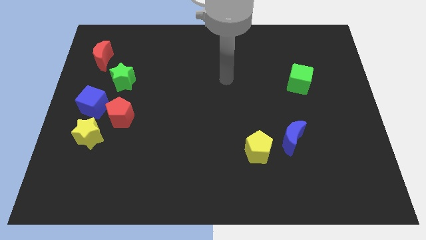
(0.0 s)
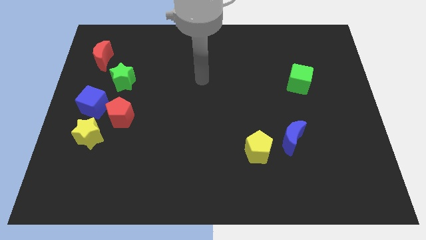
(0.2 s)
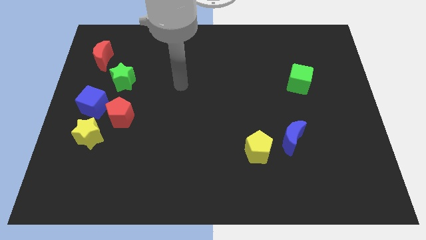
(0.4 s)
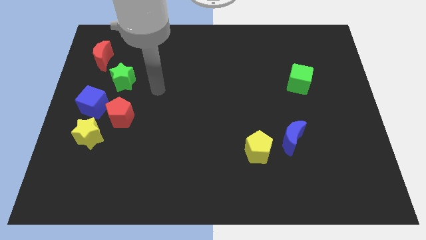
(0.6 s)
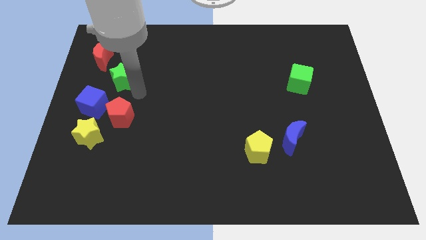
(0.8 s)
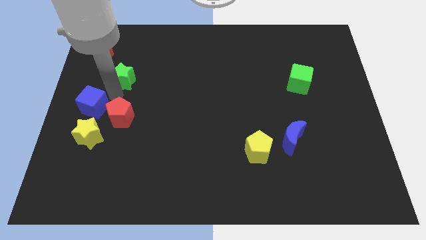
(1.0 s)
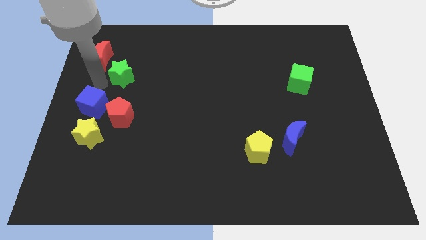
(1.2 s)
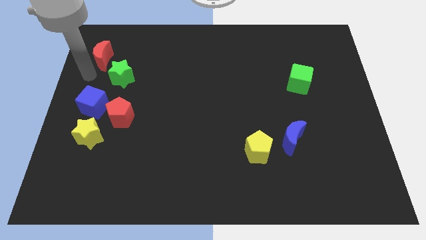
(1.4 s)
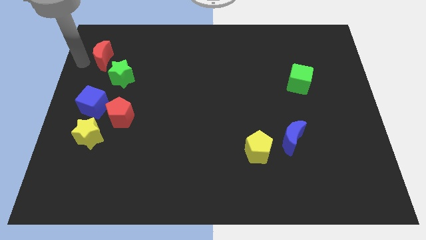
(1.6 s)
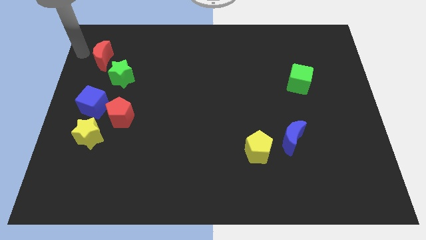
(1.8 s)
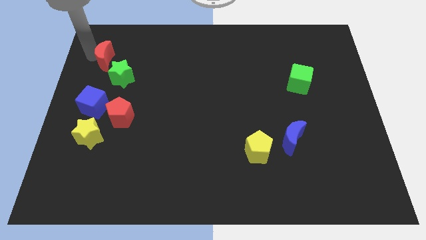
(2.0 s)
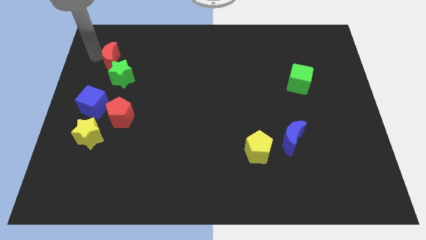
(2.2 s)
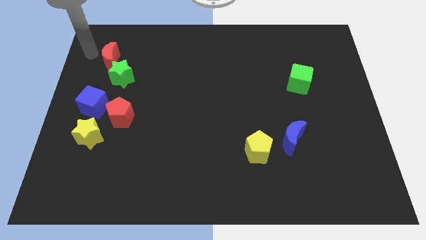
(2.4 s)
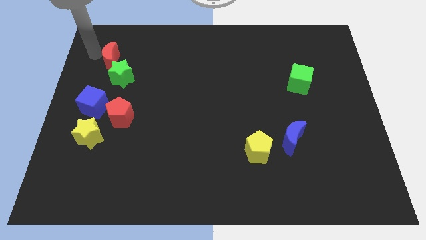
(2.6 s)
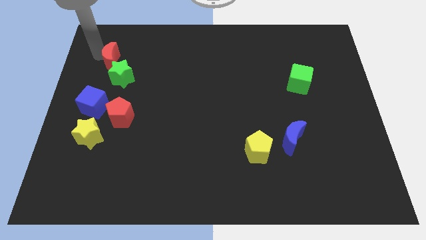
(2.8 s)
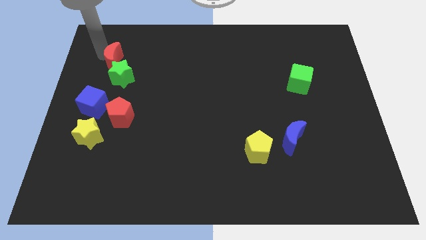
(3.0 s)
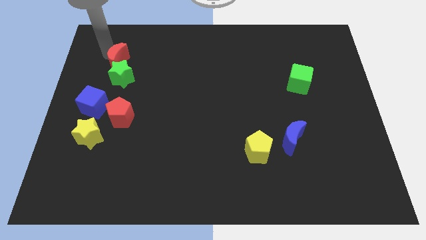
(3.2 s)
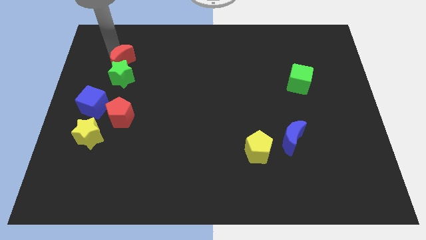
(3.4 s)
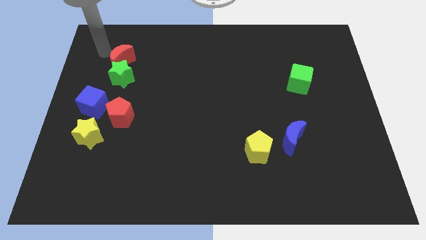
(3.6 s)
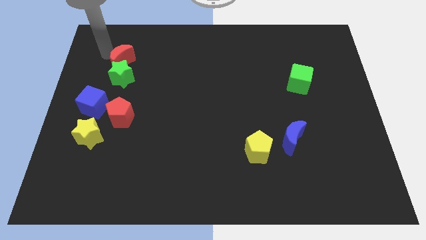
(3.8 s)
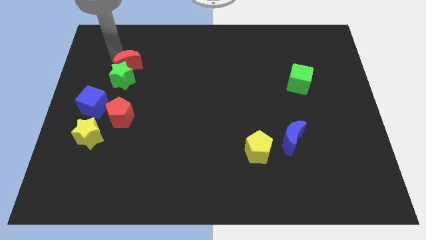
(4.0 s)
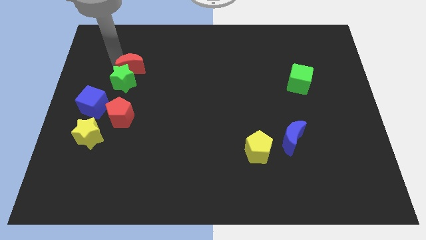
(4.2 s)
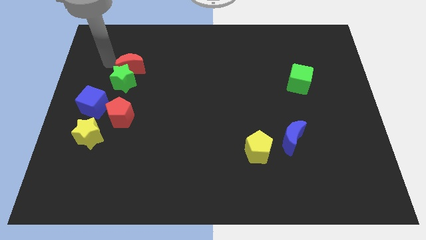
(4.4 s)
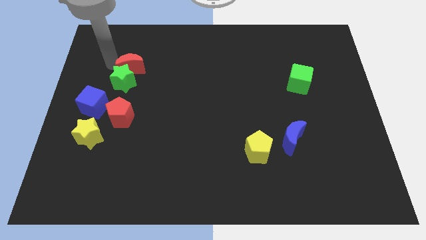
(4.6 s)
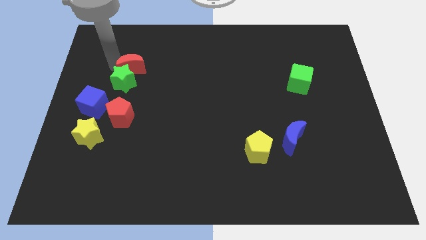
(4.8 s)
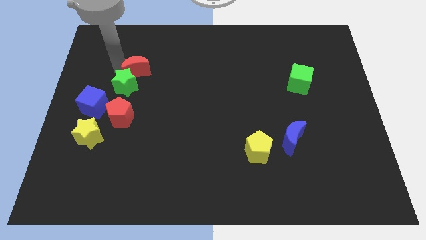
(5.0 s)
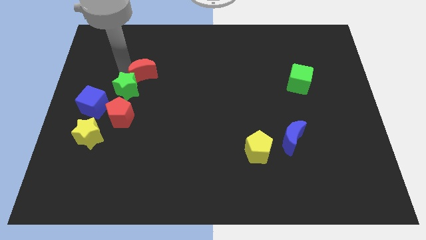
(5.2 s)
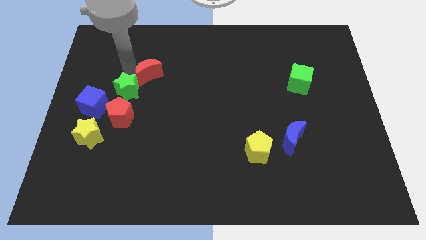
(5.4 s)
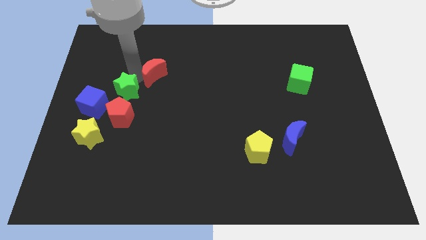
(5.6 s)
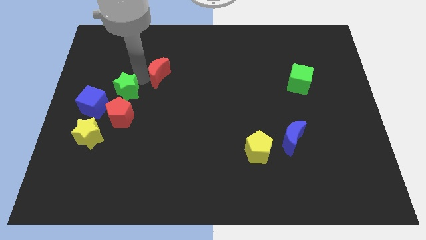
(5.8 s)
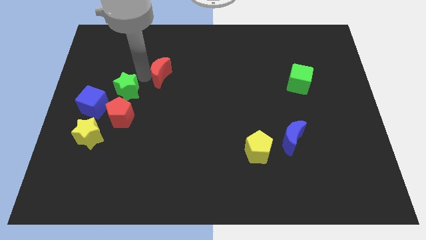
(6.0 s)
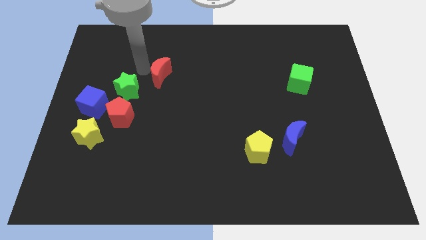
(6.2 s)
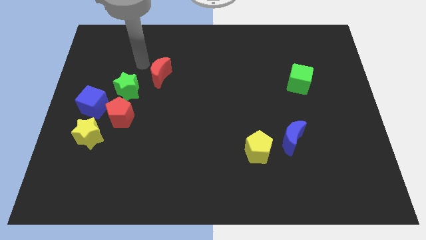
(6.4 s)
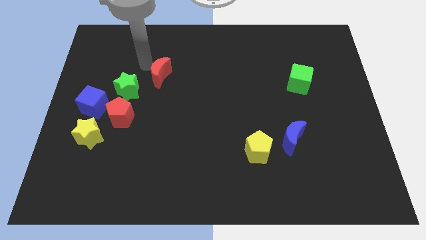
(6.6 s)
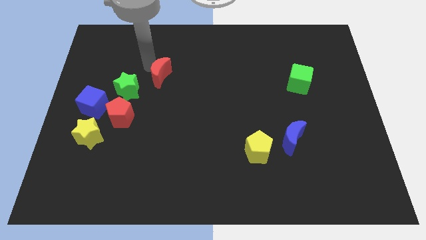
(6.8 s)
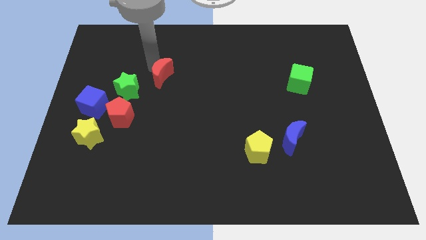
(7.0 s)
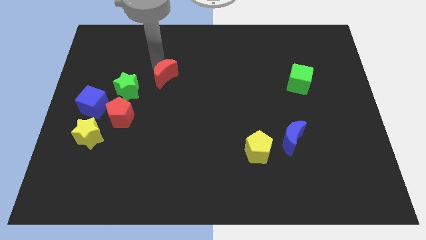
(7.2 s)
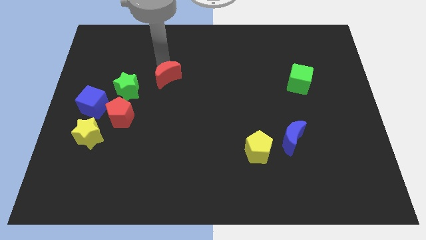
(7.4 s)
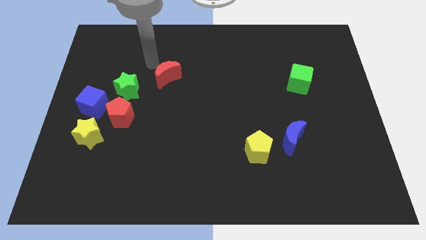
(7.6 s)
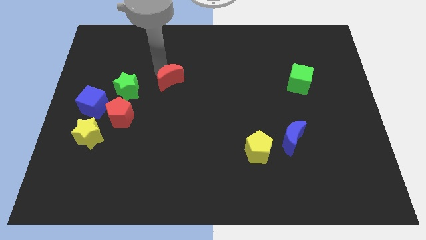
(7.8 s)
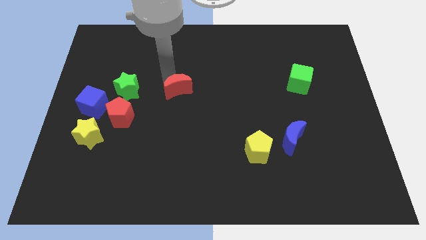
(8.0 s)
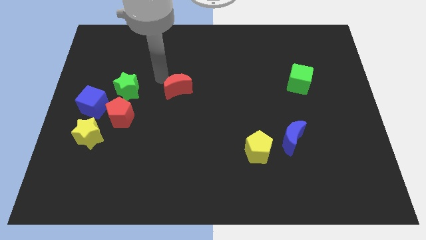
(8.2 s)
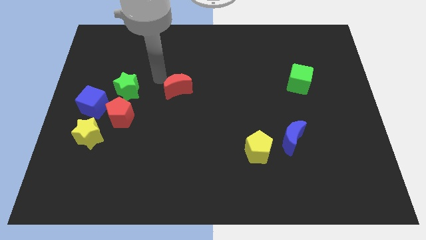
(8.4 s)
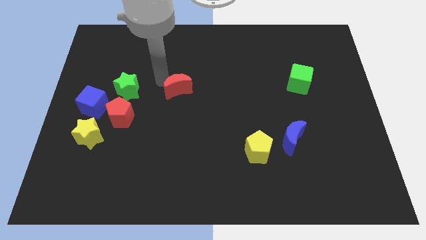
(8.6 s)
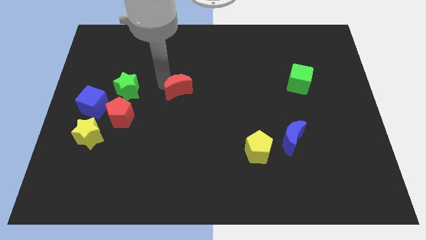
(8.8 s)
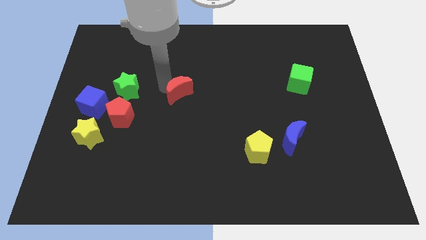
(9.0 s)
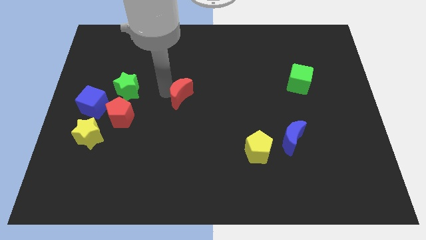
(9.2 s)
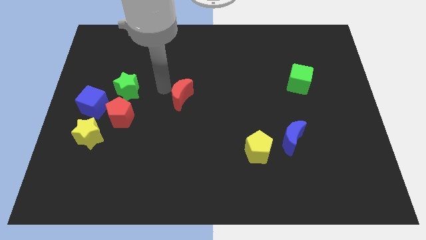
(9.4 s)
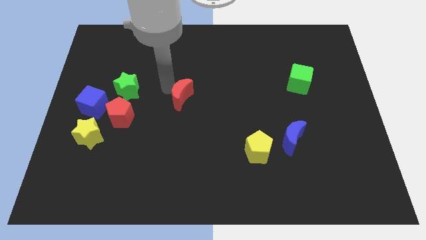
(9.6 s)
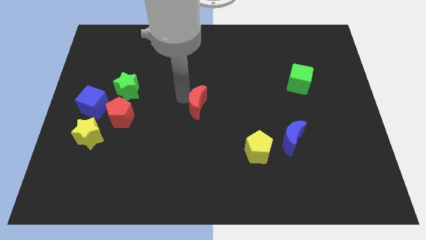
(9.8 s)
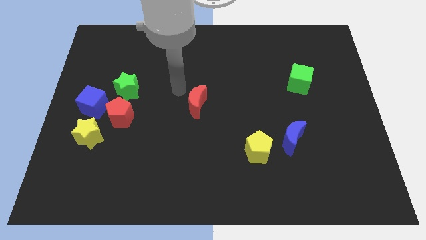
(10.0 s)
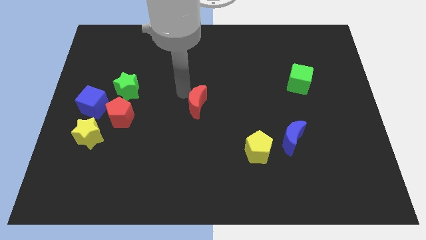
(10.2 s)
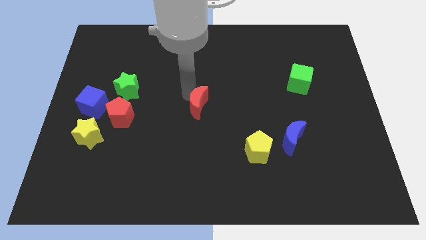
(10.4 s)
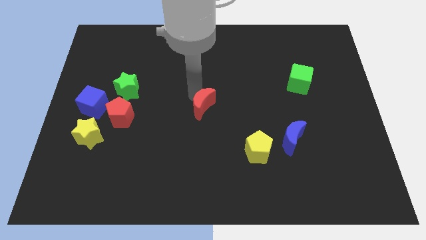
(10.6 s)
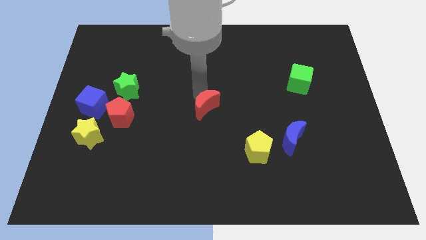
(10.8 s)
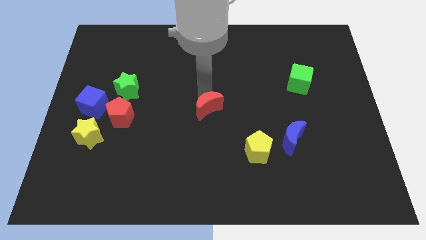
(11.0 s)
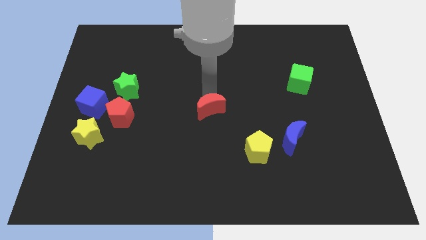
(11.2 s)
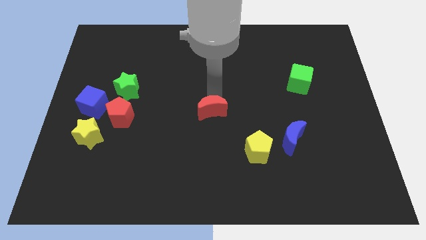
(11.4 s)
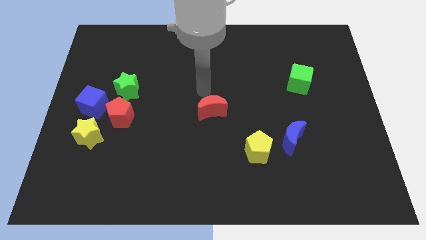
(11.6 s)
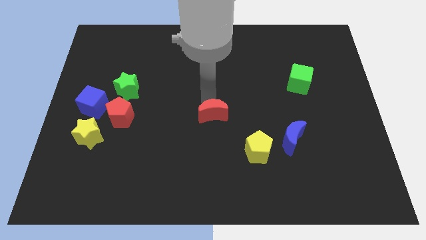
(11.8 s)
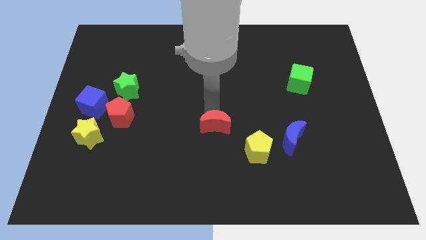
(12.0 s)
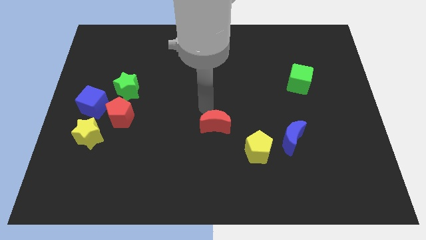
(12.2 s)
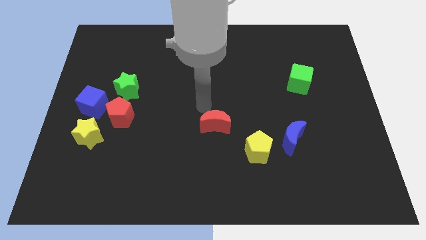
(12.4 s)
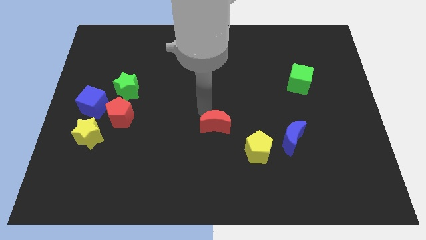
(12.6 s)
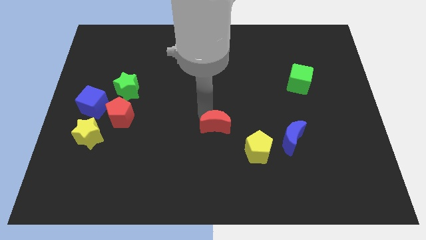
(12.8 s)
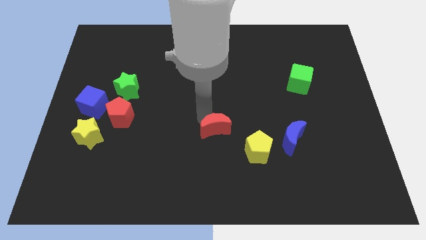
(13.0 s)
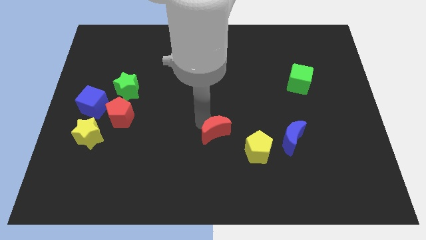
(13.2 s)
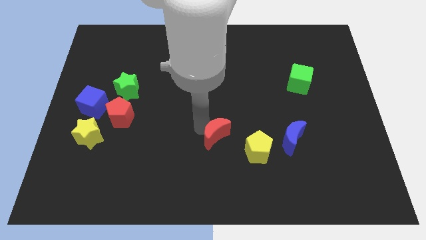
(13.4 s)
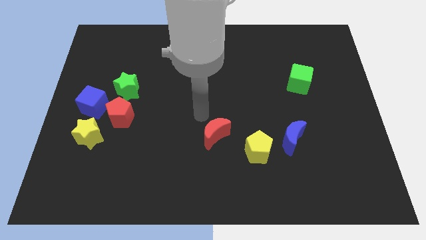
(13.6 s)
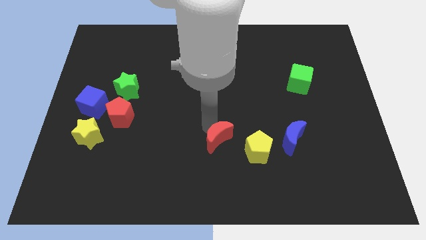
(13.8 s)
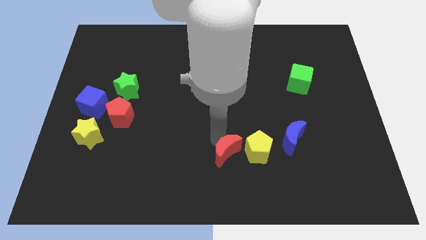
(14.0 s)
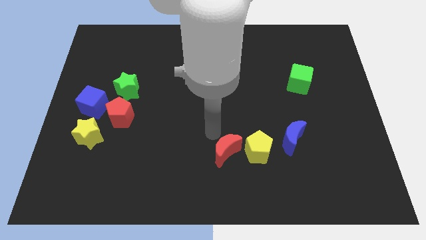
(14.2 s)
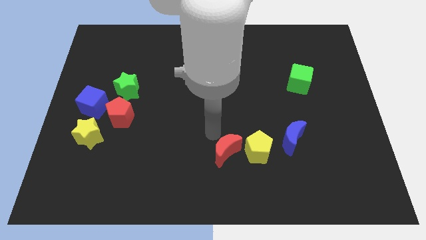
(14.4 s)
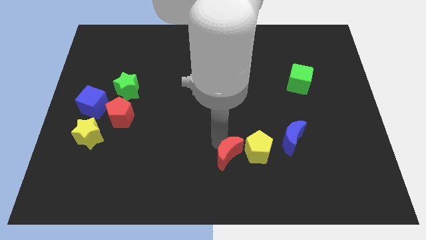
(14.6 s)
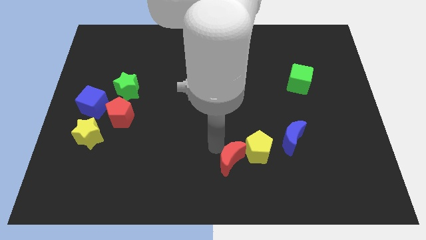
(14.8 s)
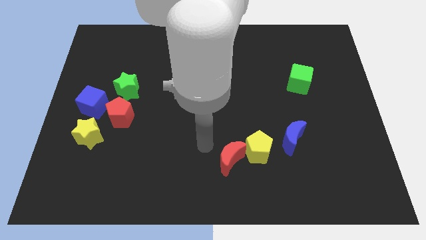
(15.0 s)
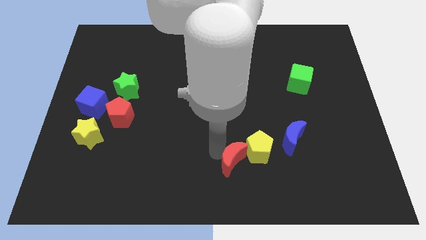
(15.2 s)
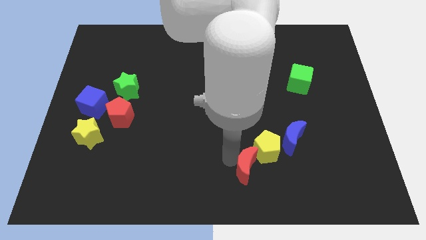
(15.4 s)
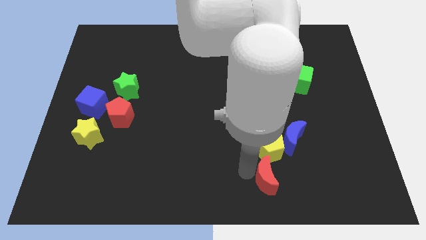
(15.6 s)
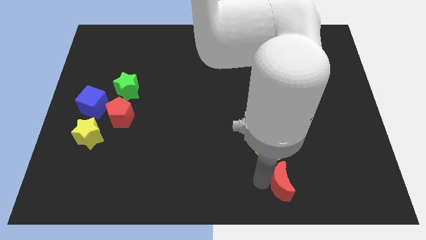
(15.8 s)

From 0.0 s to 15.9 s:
push the red moon to the bottom right side of the yellow pentagon
